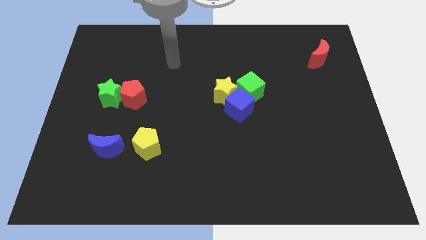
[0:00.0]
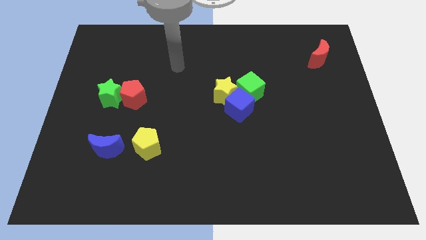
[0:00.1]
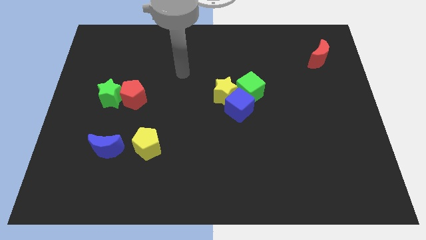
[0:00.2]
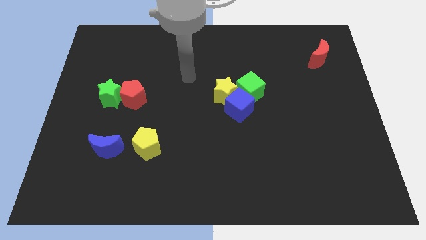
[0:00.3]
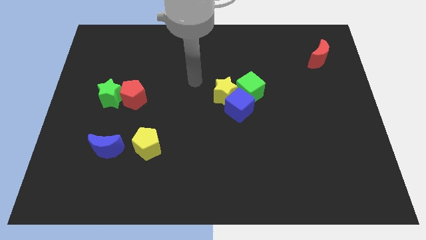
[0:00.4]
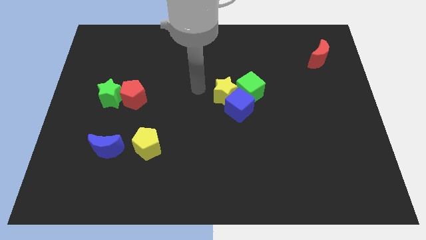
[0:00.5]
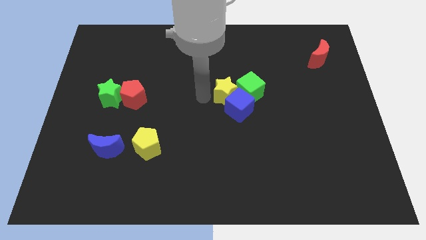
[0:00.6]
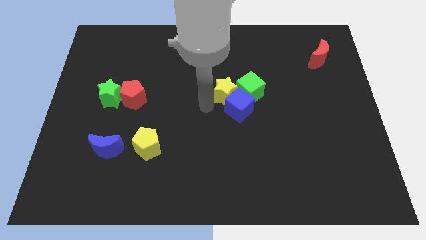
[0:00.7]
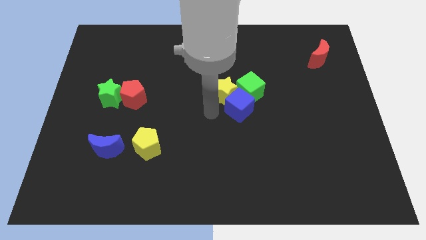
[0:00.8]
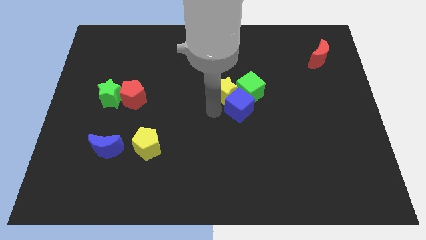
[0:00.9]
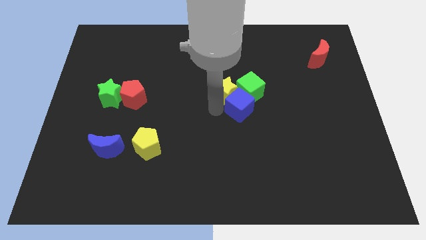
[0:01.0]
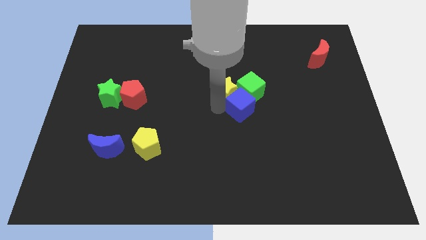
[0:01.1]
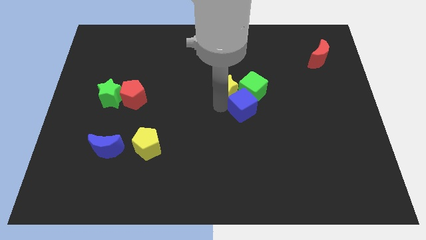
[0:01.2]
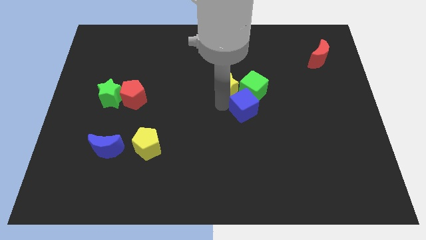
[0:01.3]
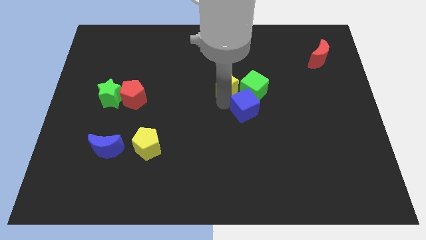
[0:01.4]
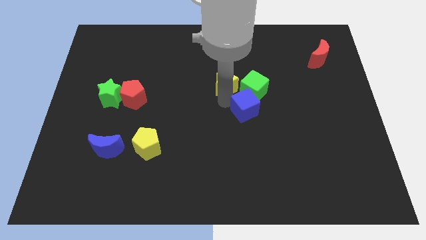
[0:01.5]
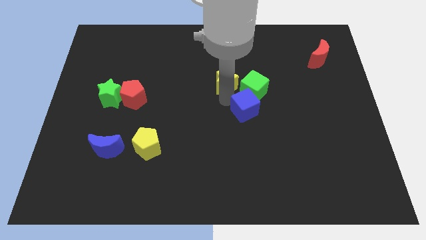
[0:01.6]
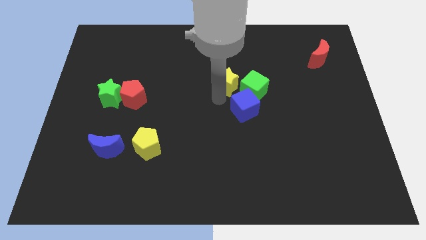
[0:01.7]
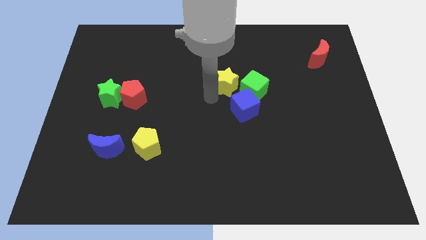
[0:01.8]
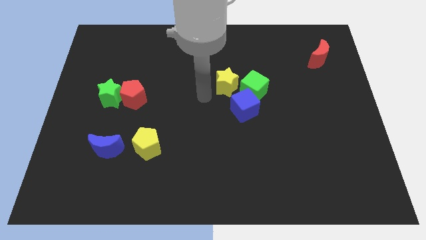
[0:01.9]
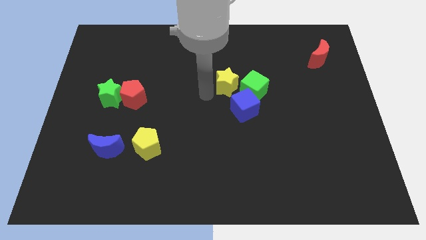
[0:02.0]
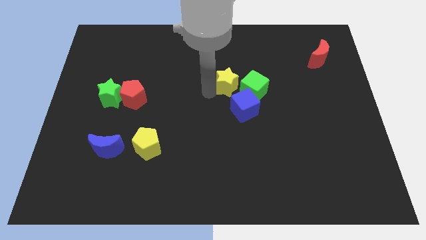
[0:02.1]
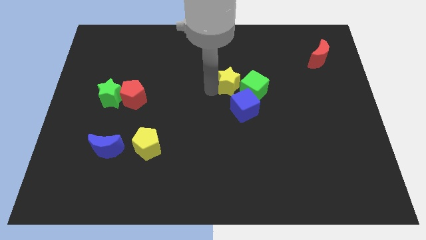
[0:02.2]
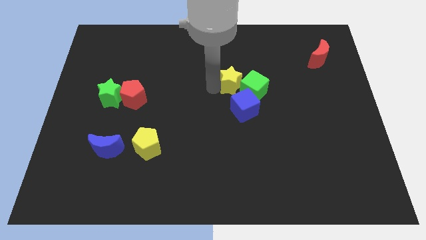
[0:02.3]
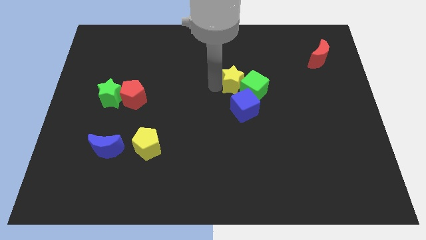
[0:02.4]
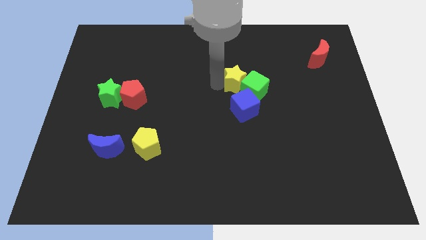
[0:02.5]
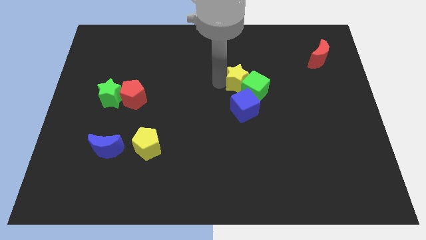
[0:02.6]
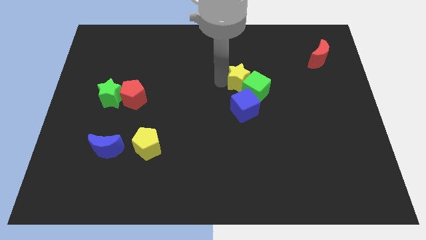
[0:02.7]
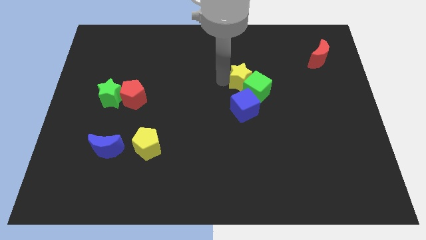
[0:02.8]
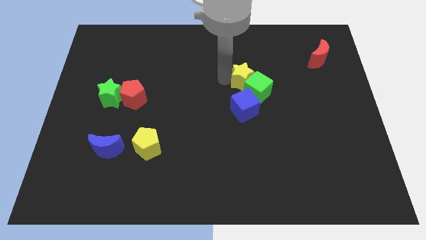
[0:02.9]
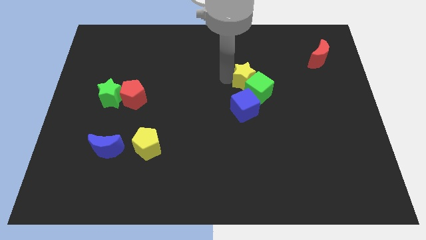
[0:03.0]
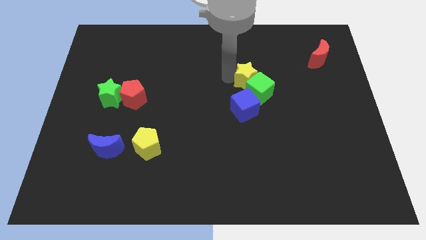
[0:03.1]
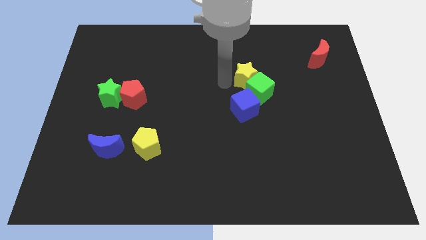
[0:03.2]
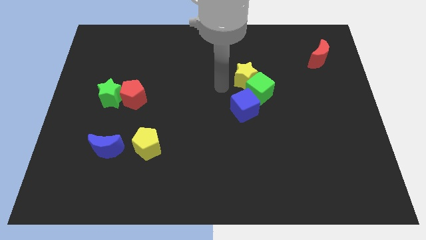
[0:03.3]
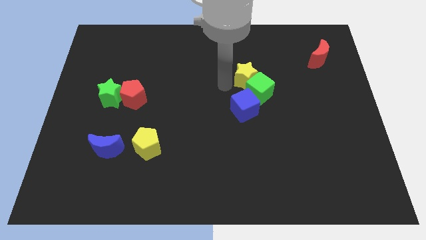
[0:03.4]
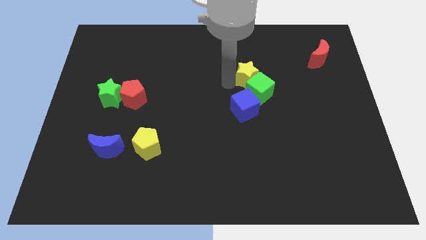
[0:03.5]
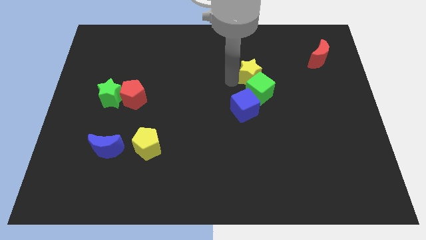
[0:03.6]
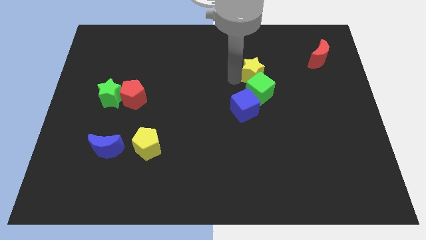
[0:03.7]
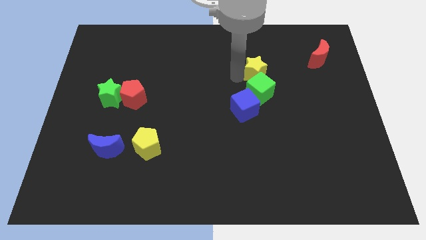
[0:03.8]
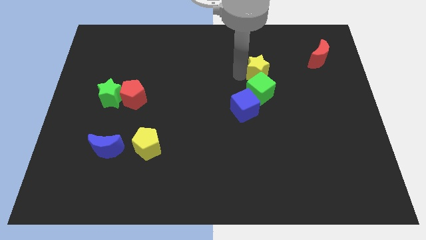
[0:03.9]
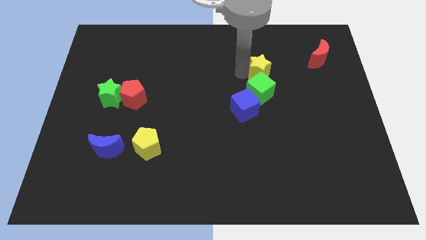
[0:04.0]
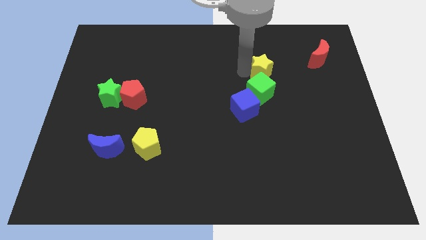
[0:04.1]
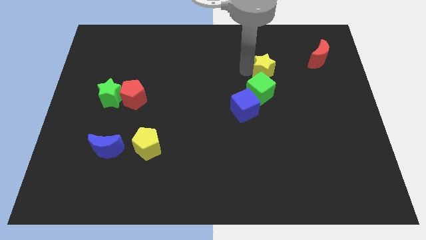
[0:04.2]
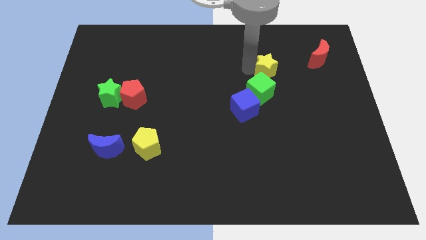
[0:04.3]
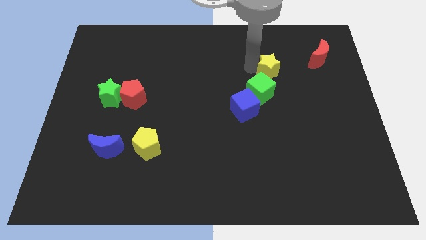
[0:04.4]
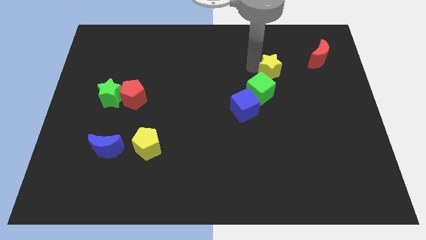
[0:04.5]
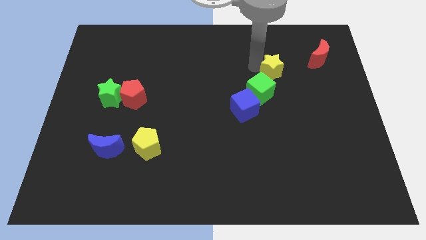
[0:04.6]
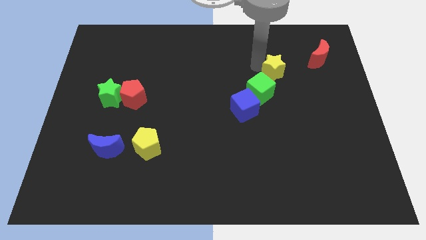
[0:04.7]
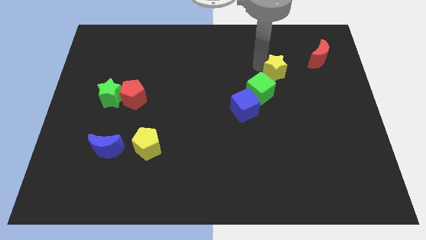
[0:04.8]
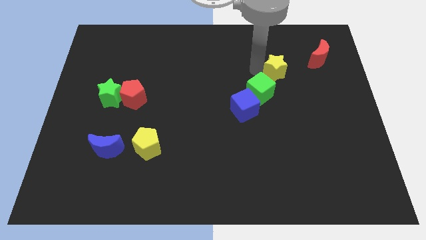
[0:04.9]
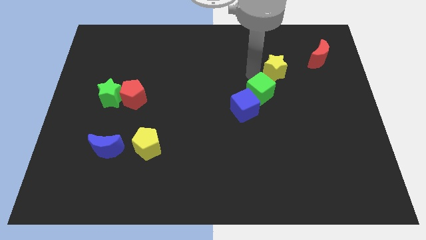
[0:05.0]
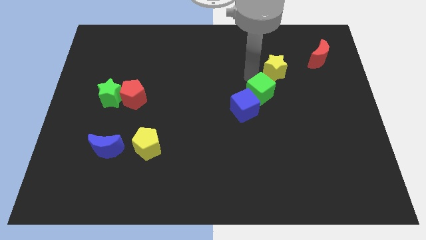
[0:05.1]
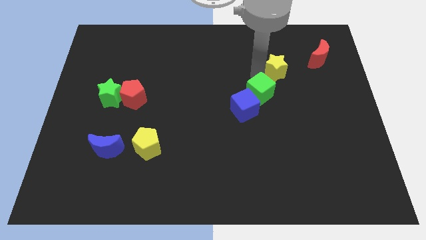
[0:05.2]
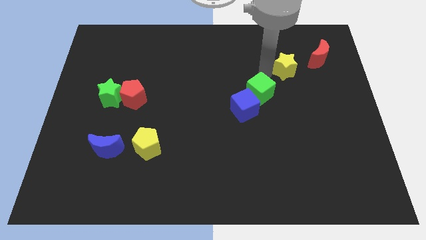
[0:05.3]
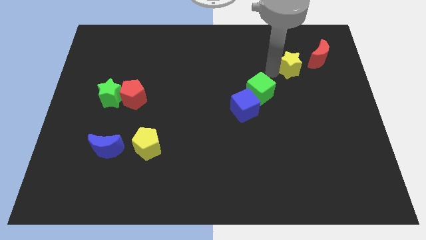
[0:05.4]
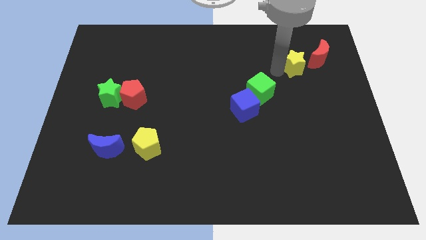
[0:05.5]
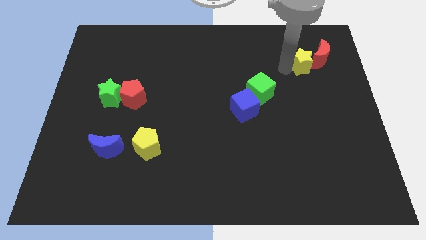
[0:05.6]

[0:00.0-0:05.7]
push the yellow star close to the red moon

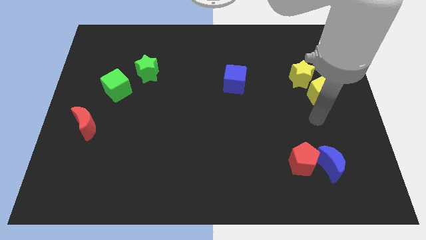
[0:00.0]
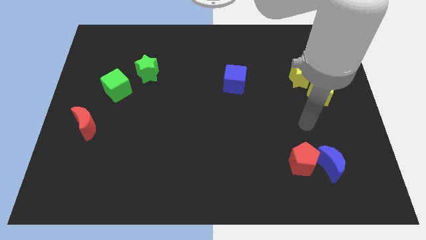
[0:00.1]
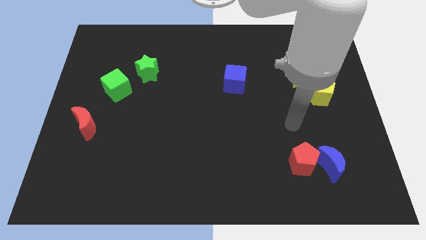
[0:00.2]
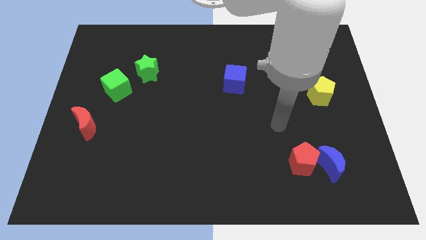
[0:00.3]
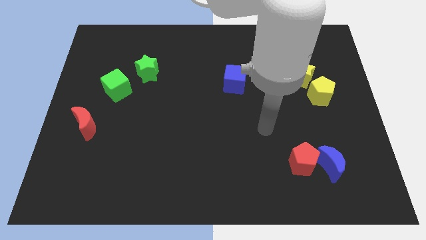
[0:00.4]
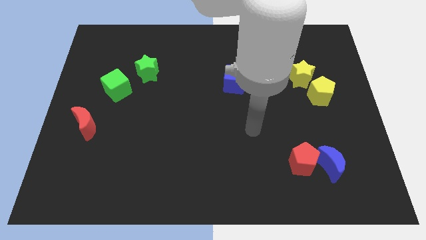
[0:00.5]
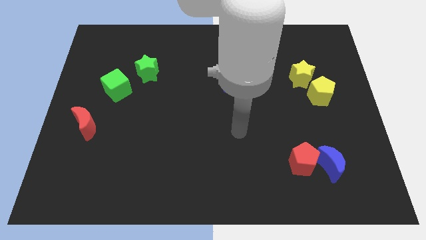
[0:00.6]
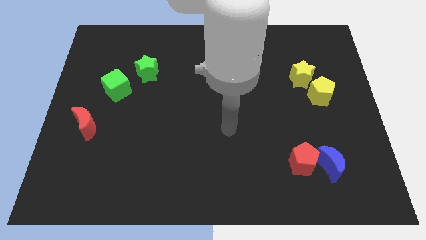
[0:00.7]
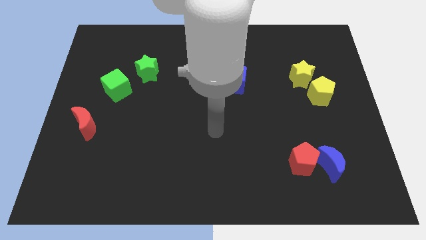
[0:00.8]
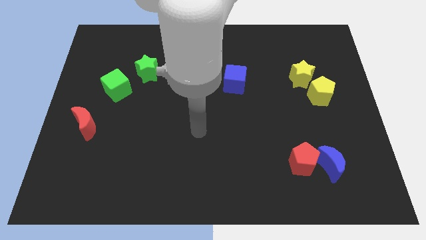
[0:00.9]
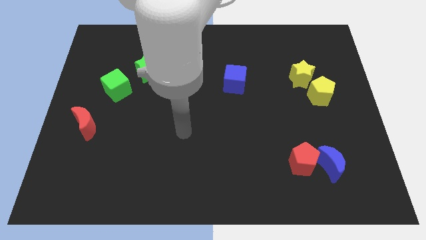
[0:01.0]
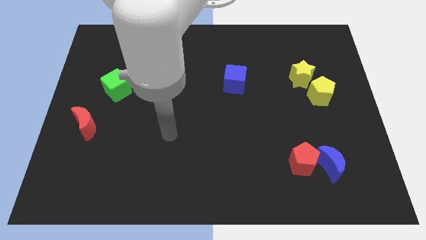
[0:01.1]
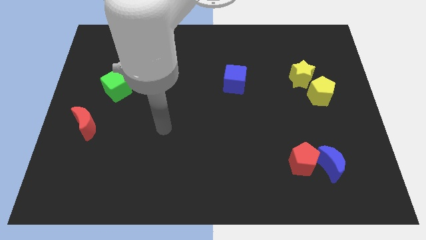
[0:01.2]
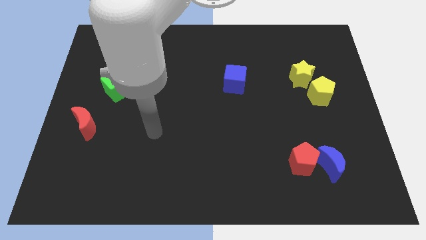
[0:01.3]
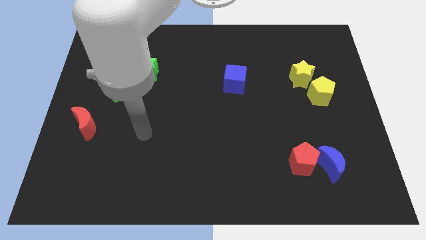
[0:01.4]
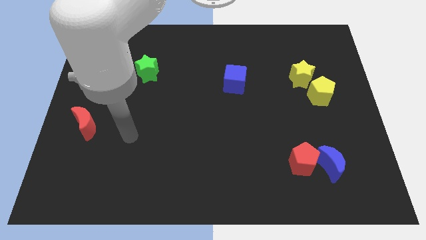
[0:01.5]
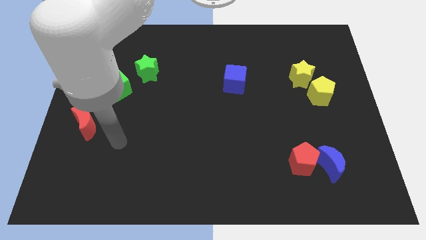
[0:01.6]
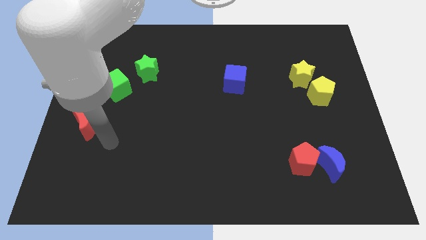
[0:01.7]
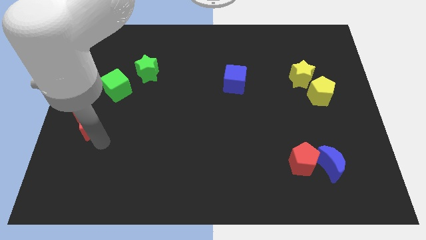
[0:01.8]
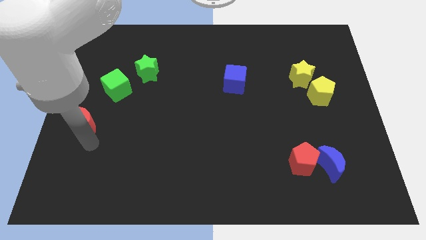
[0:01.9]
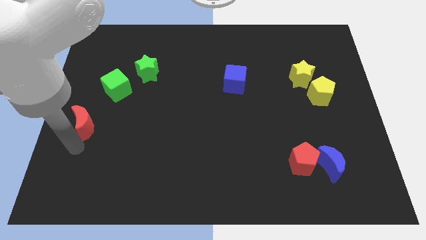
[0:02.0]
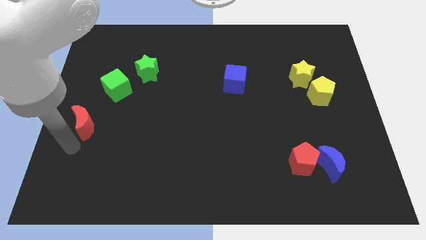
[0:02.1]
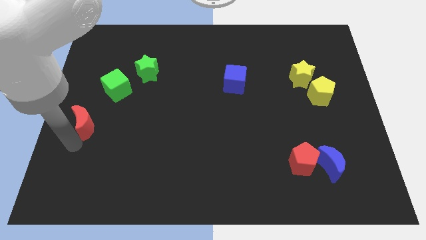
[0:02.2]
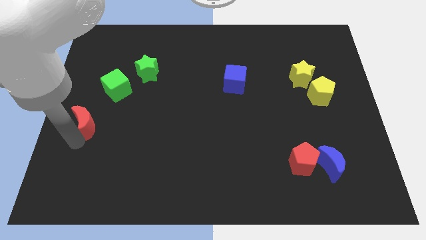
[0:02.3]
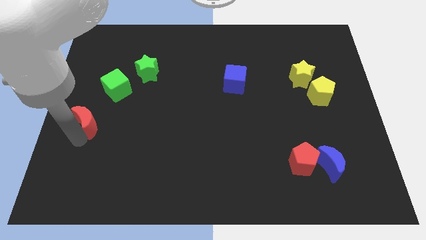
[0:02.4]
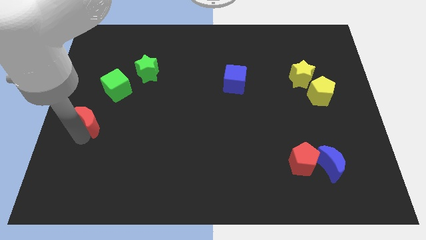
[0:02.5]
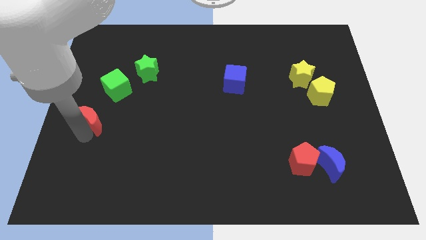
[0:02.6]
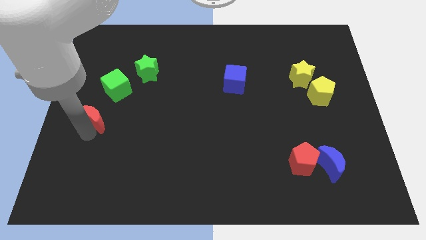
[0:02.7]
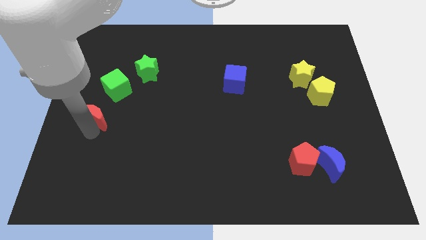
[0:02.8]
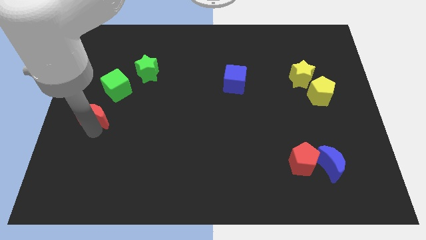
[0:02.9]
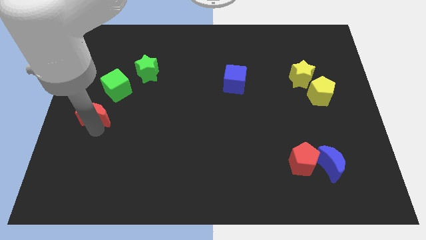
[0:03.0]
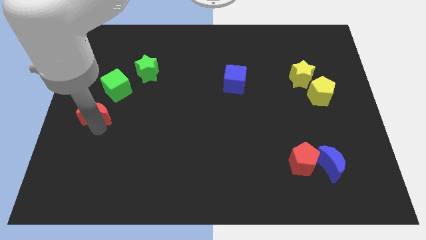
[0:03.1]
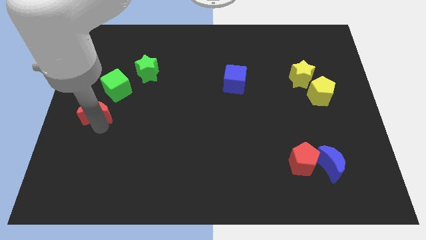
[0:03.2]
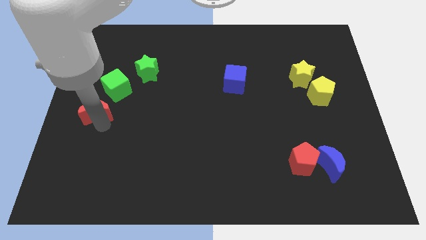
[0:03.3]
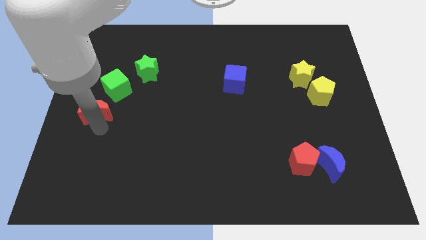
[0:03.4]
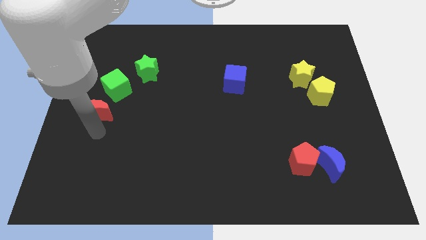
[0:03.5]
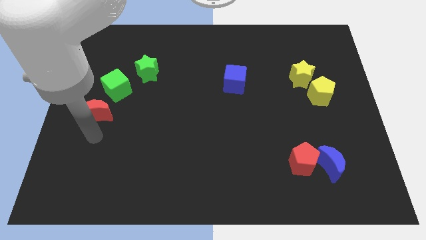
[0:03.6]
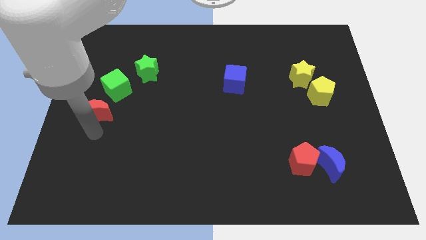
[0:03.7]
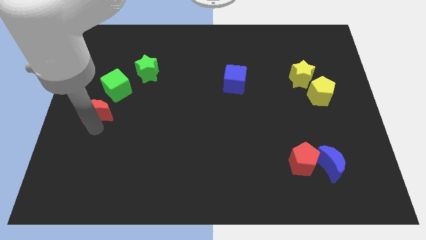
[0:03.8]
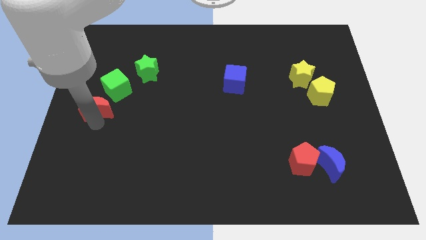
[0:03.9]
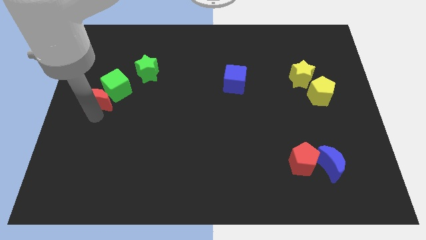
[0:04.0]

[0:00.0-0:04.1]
push the red moon to the green cube
